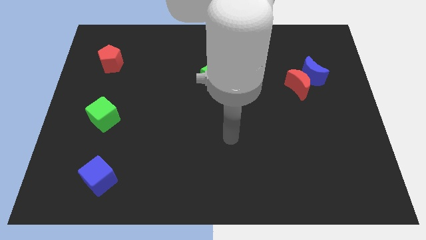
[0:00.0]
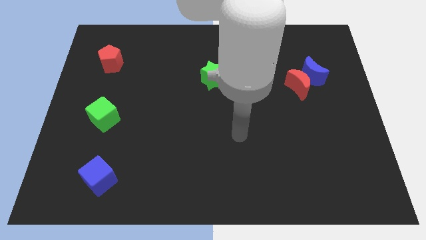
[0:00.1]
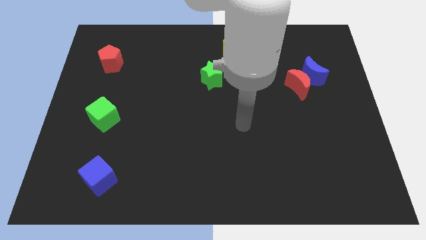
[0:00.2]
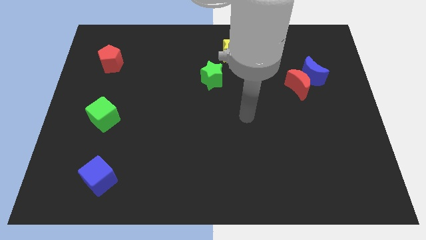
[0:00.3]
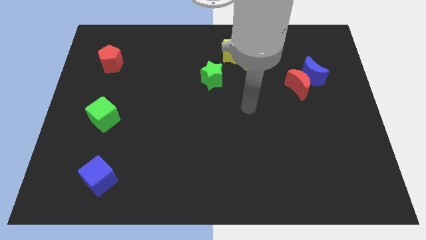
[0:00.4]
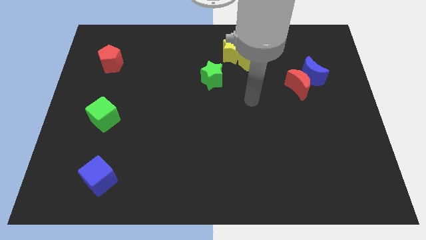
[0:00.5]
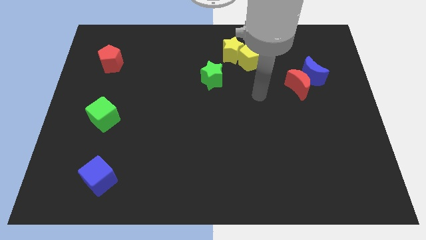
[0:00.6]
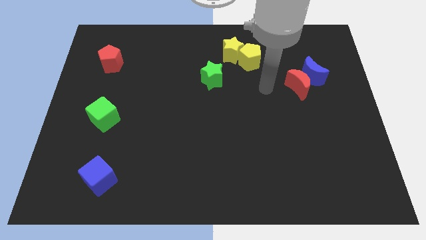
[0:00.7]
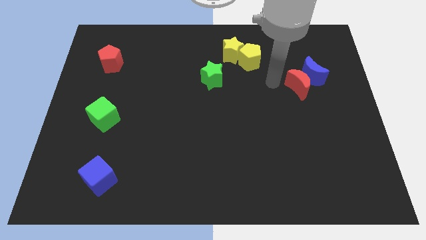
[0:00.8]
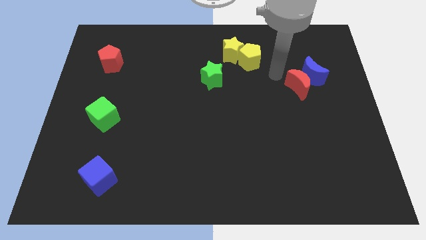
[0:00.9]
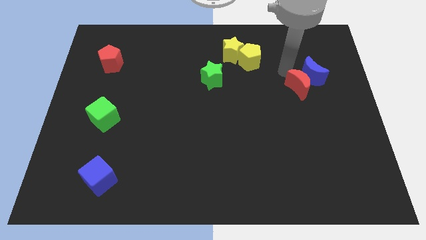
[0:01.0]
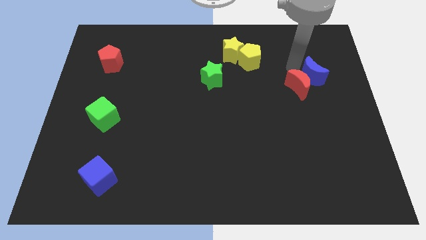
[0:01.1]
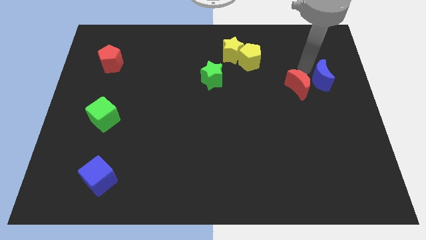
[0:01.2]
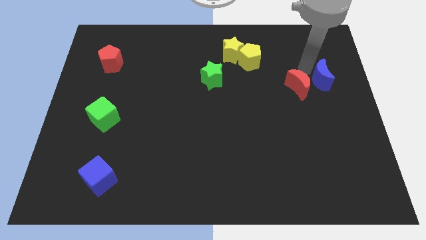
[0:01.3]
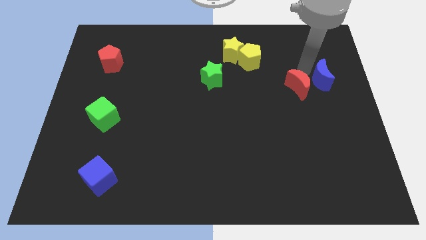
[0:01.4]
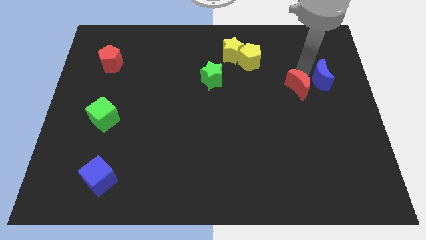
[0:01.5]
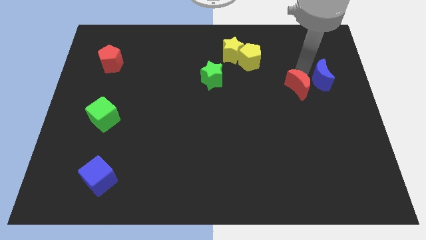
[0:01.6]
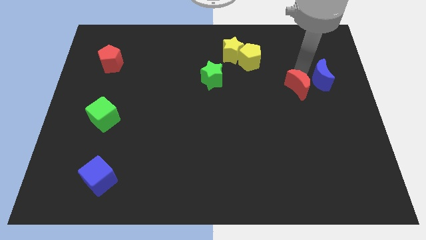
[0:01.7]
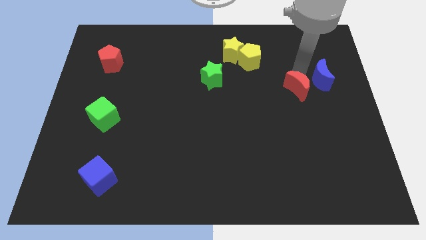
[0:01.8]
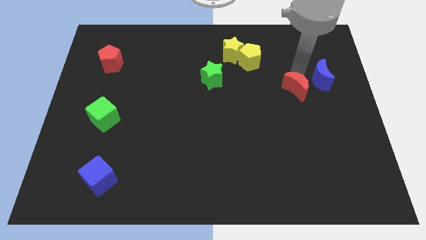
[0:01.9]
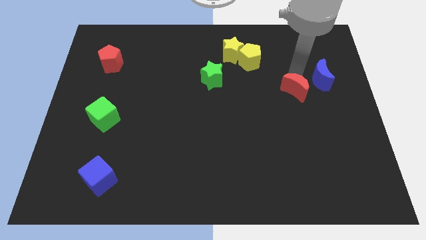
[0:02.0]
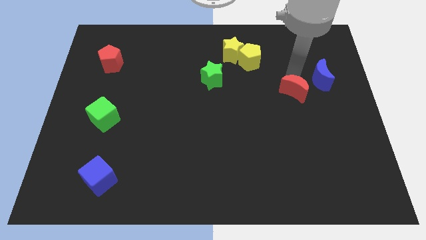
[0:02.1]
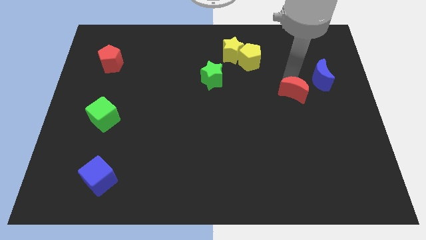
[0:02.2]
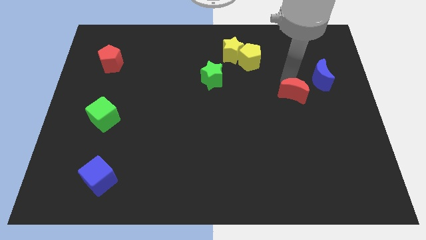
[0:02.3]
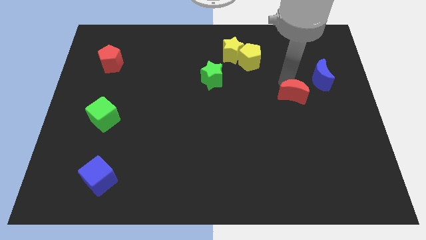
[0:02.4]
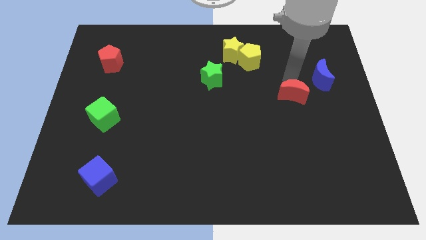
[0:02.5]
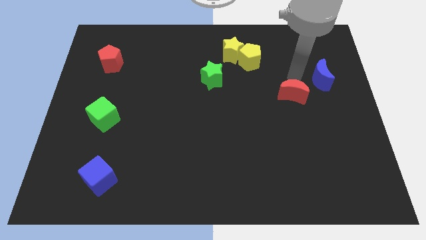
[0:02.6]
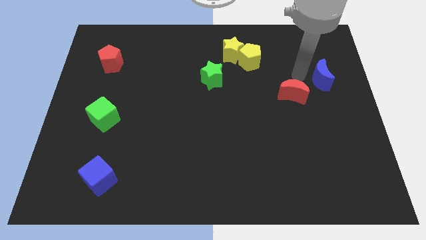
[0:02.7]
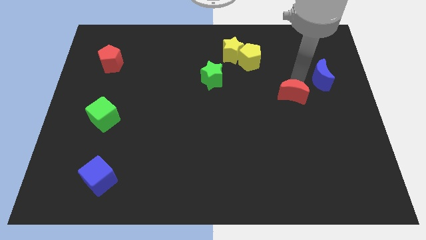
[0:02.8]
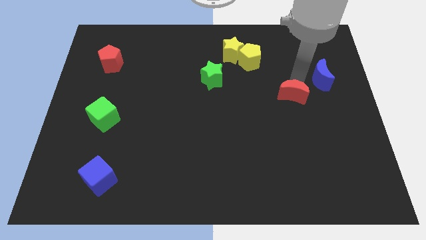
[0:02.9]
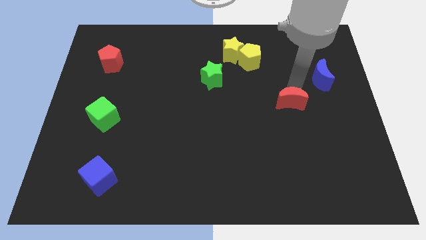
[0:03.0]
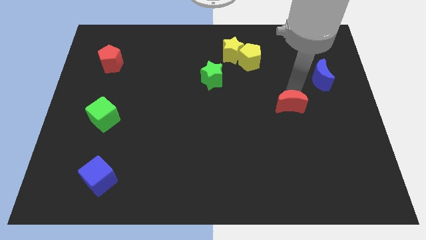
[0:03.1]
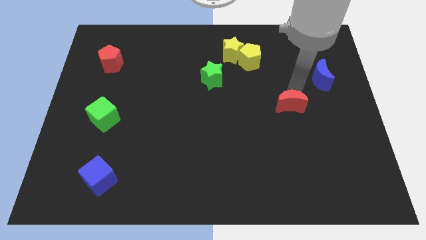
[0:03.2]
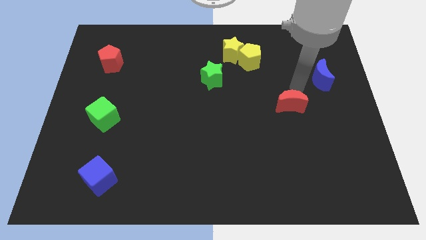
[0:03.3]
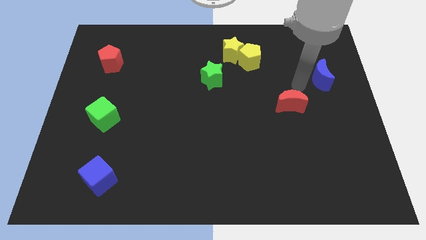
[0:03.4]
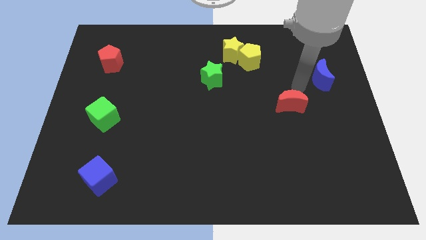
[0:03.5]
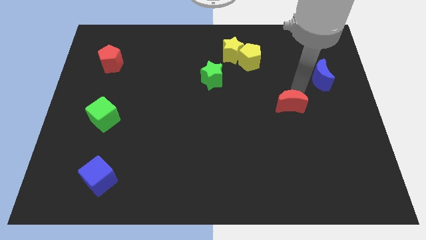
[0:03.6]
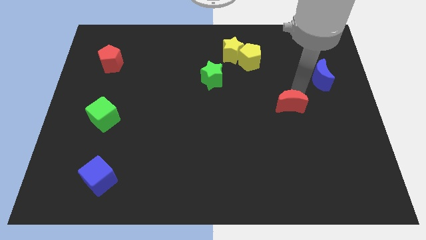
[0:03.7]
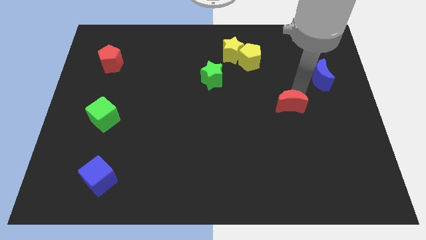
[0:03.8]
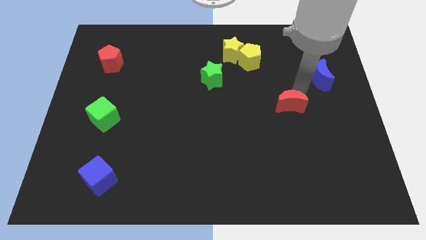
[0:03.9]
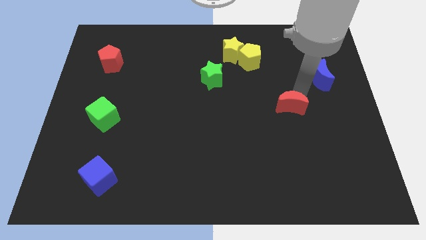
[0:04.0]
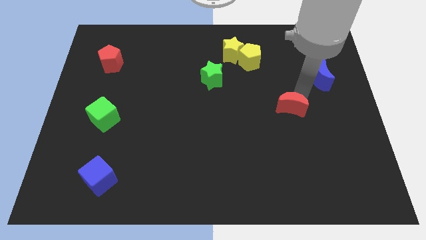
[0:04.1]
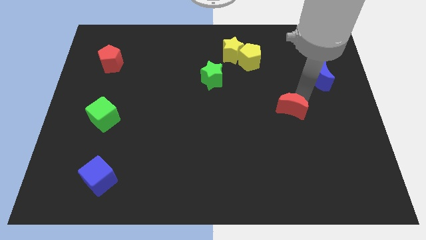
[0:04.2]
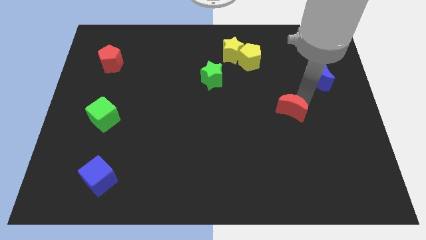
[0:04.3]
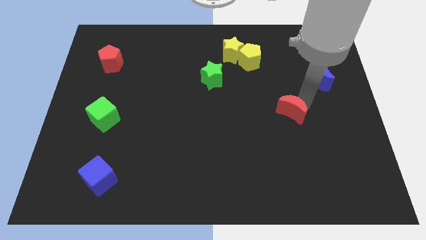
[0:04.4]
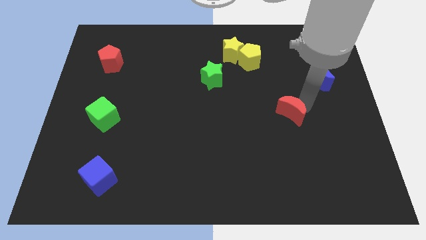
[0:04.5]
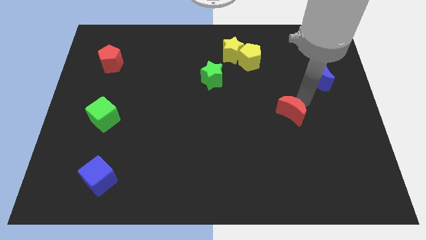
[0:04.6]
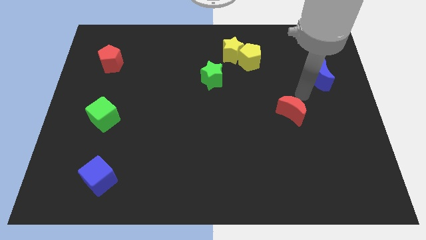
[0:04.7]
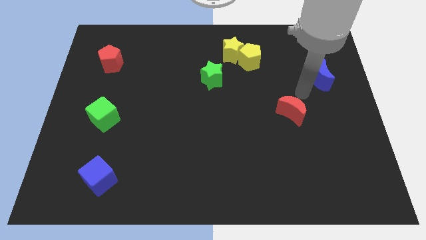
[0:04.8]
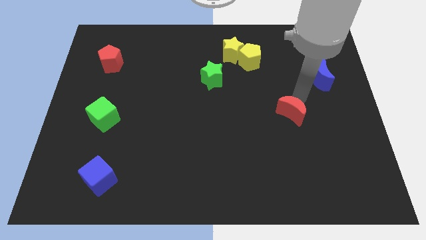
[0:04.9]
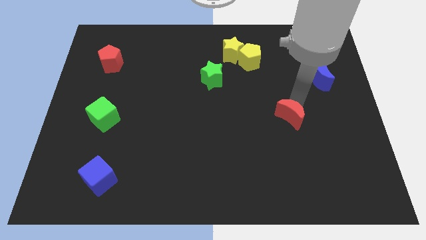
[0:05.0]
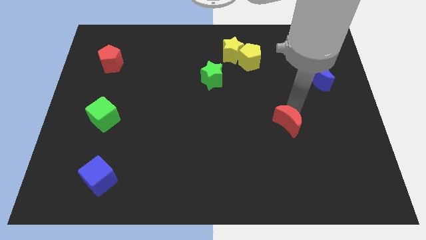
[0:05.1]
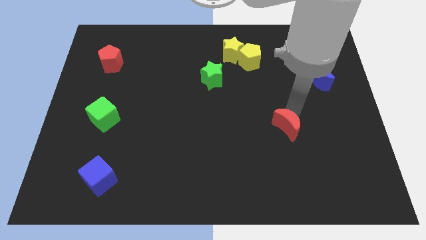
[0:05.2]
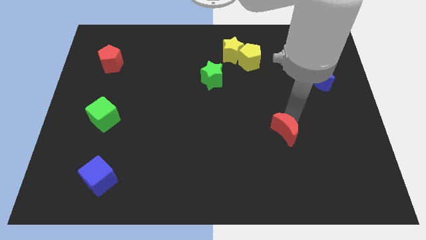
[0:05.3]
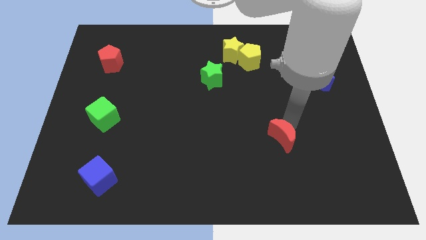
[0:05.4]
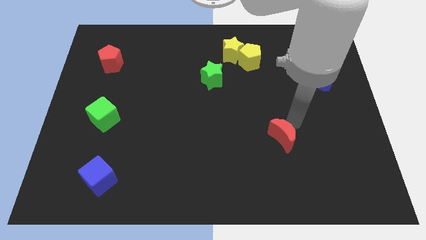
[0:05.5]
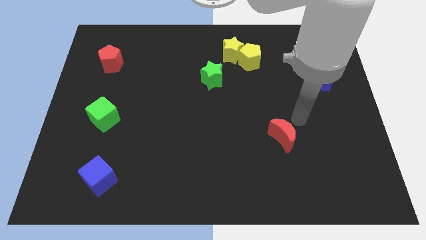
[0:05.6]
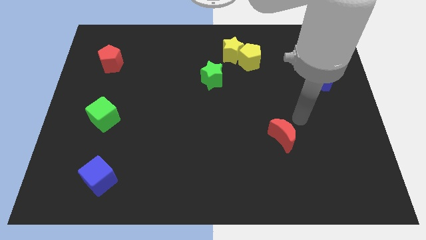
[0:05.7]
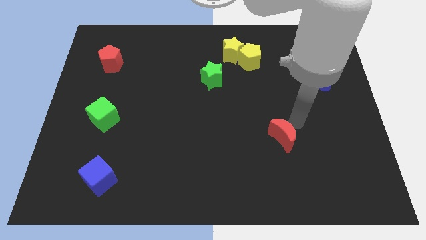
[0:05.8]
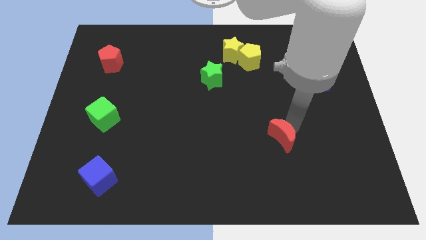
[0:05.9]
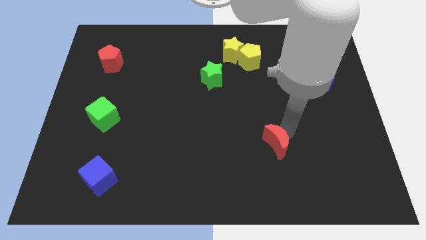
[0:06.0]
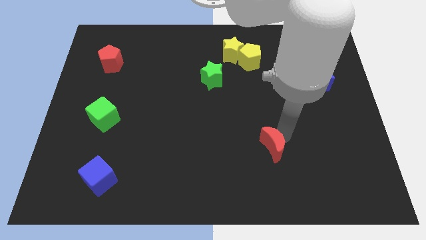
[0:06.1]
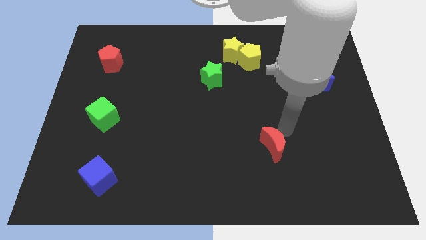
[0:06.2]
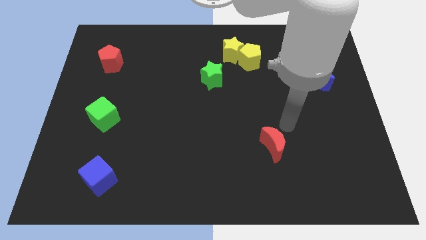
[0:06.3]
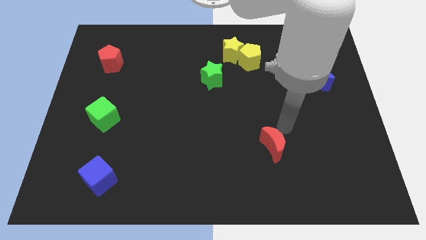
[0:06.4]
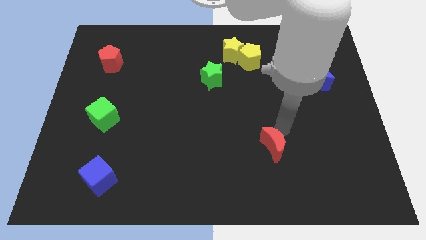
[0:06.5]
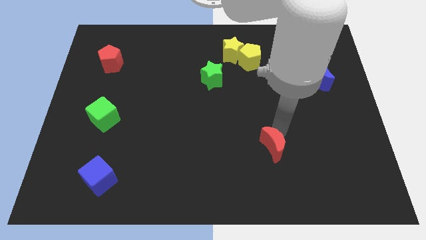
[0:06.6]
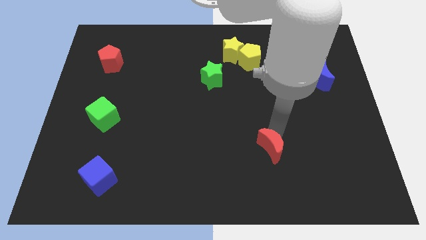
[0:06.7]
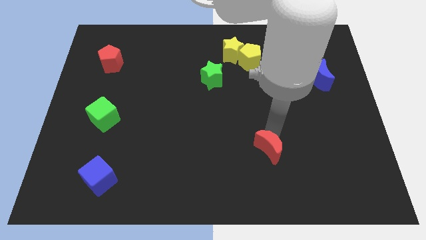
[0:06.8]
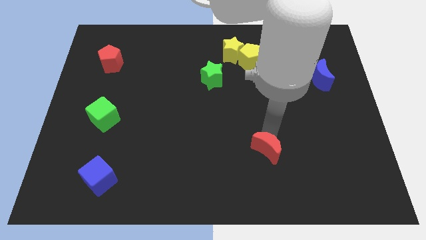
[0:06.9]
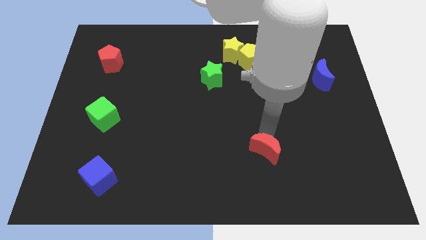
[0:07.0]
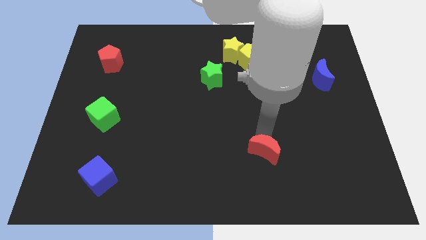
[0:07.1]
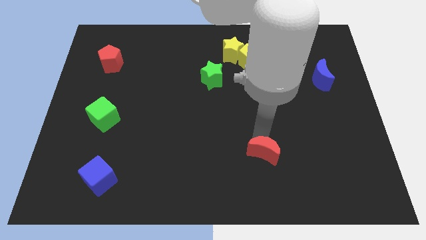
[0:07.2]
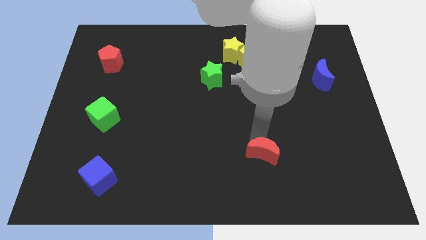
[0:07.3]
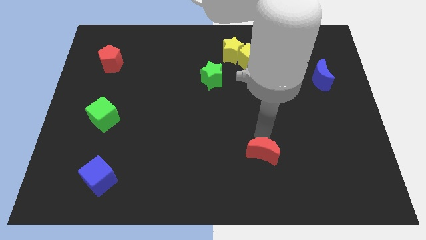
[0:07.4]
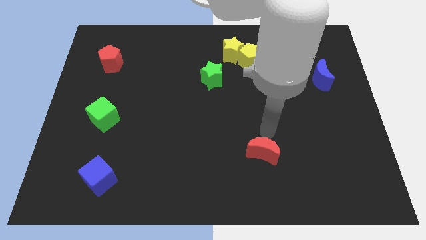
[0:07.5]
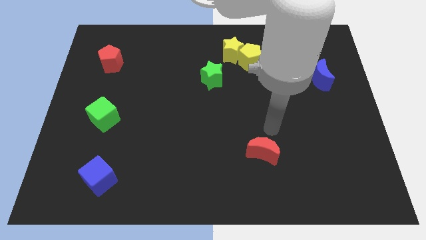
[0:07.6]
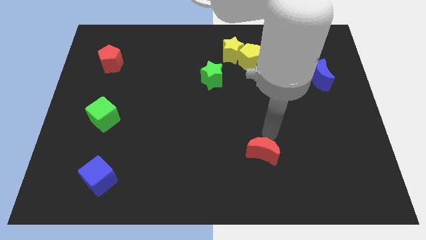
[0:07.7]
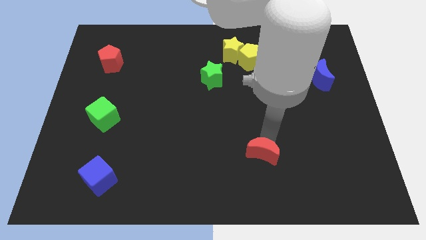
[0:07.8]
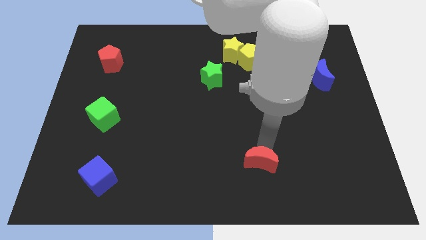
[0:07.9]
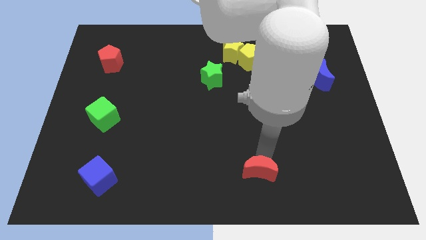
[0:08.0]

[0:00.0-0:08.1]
put the red moon to the bottom
